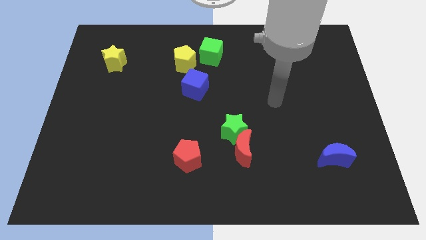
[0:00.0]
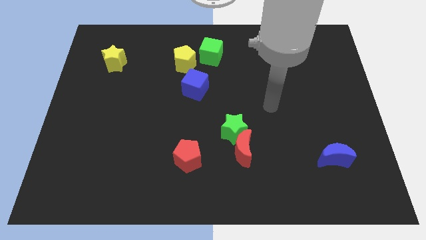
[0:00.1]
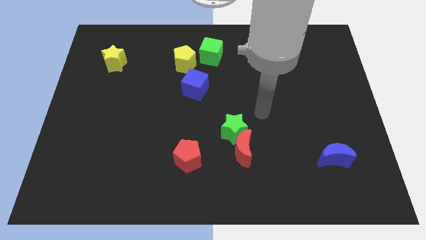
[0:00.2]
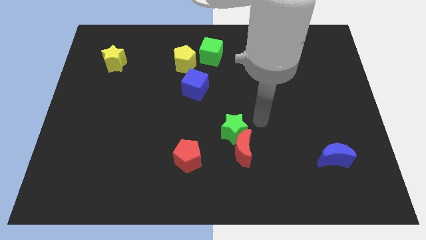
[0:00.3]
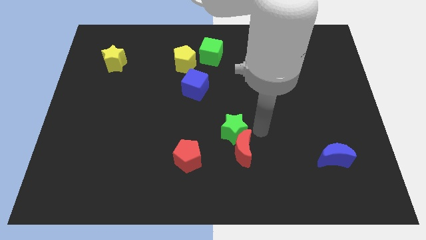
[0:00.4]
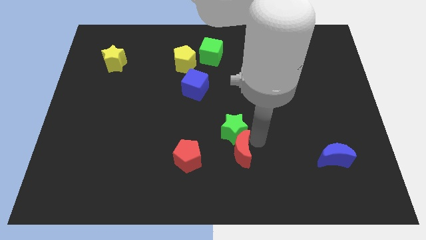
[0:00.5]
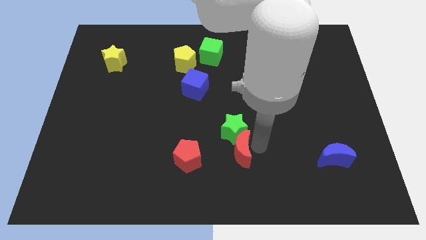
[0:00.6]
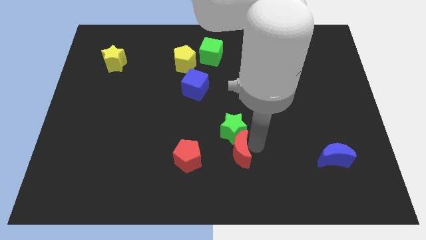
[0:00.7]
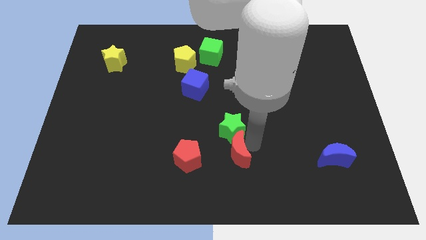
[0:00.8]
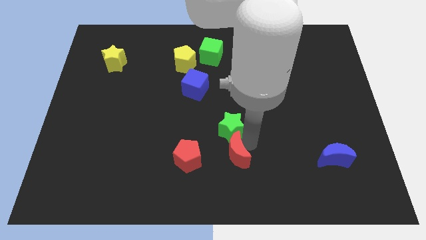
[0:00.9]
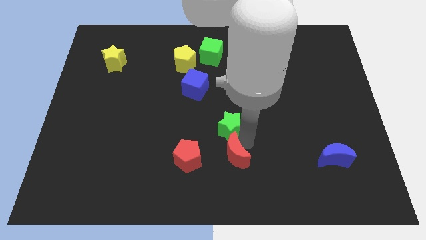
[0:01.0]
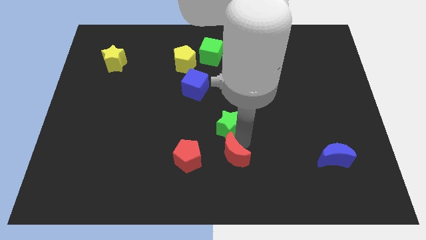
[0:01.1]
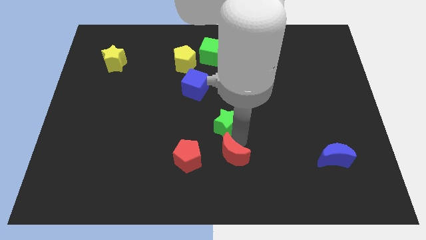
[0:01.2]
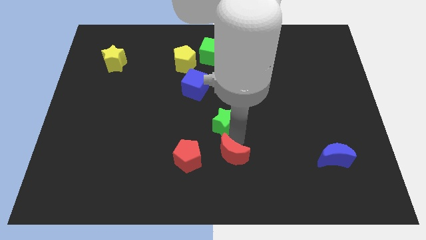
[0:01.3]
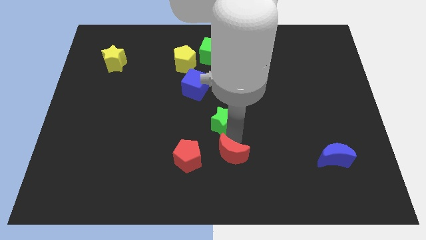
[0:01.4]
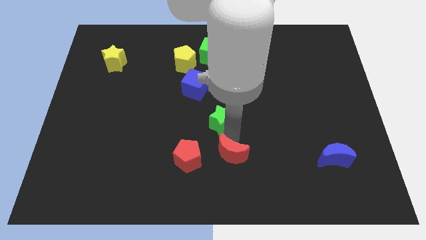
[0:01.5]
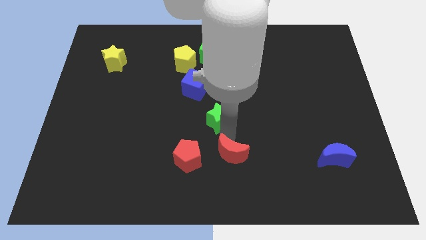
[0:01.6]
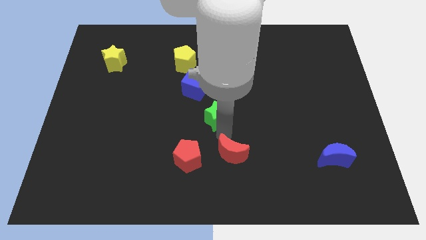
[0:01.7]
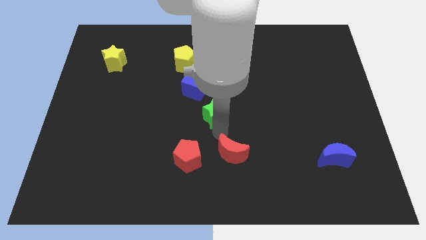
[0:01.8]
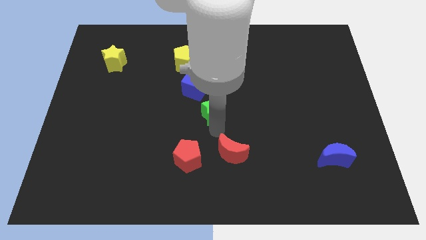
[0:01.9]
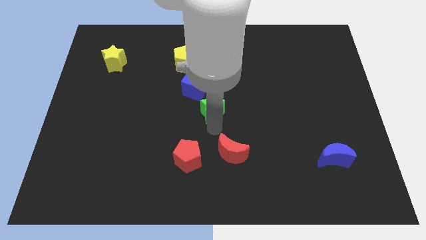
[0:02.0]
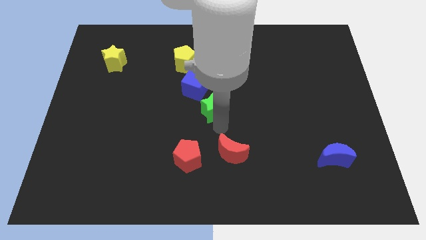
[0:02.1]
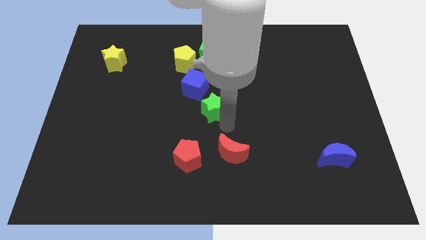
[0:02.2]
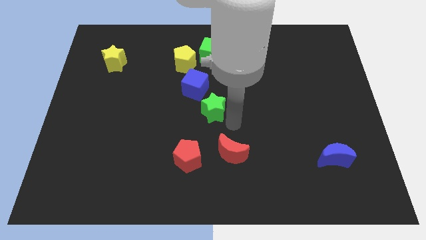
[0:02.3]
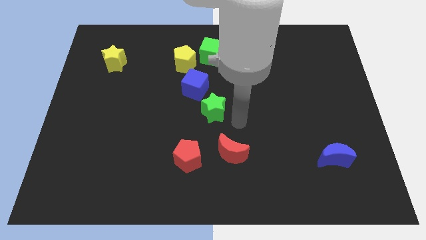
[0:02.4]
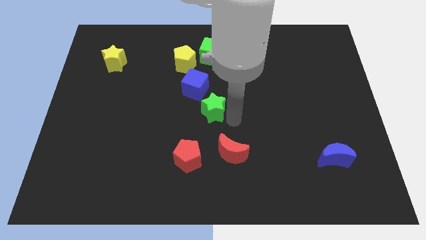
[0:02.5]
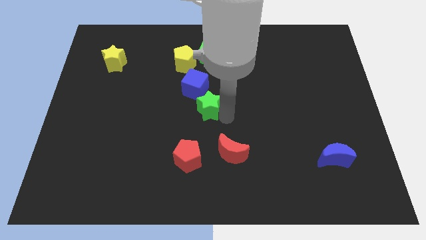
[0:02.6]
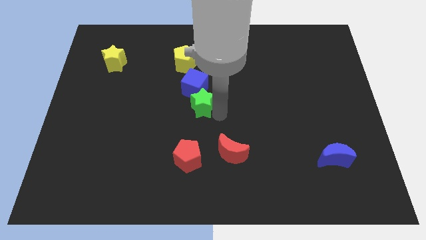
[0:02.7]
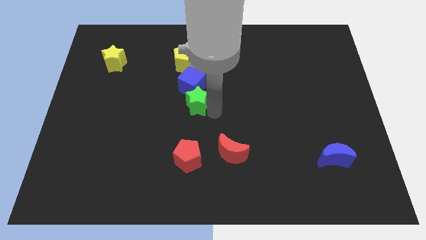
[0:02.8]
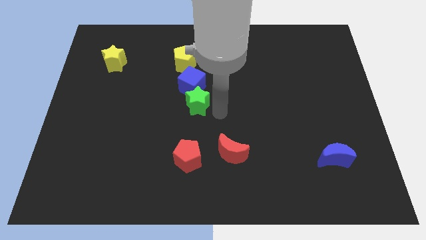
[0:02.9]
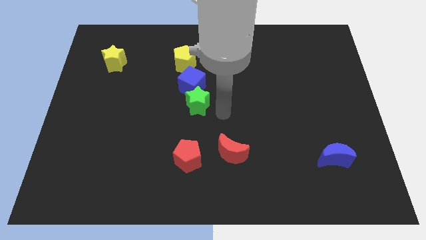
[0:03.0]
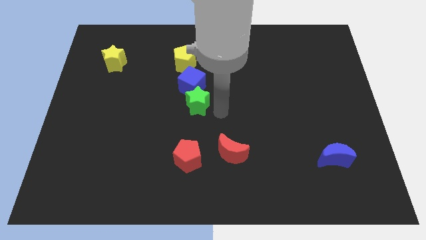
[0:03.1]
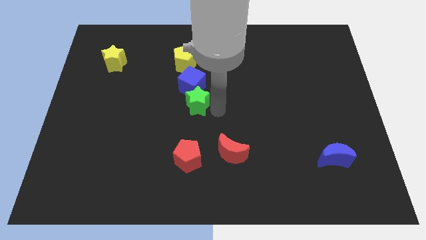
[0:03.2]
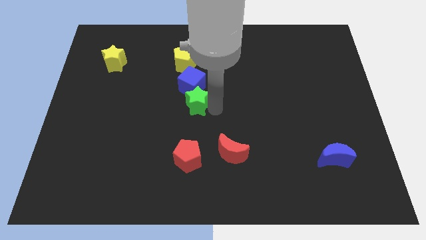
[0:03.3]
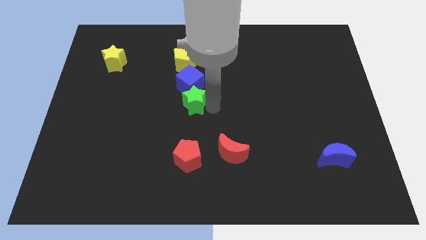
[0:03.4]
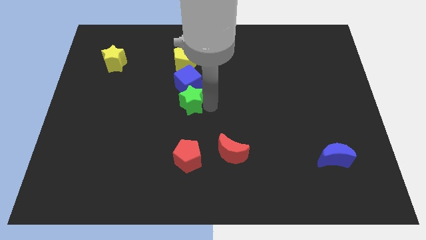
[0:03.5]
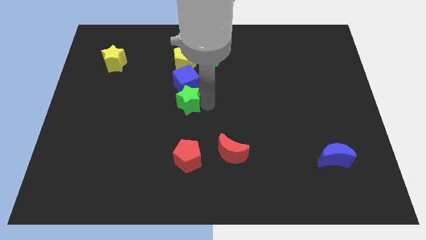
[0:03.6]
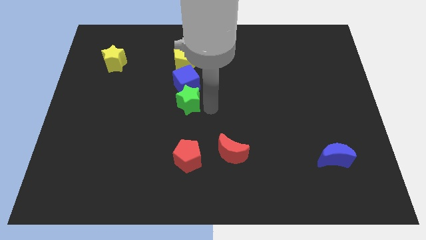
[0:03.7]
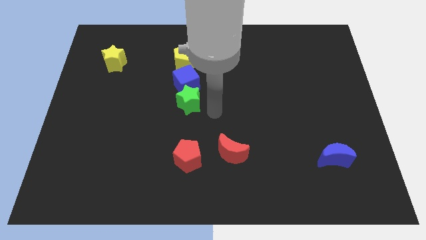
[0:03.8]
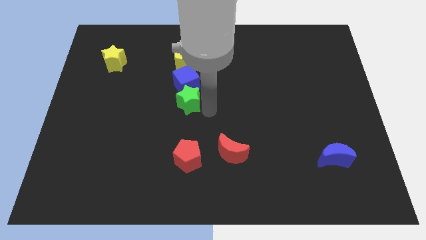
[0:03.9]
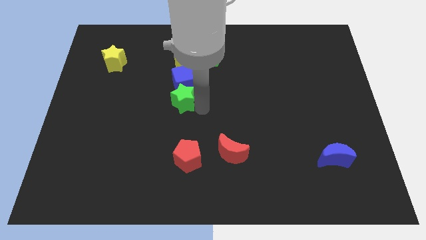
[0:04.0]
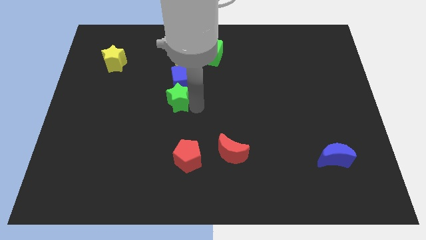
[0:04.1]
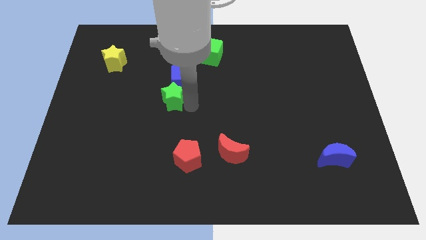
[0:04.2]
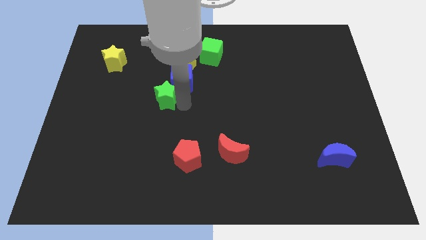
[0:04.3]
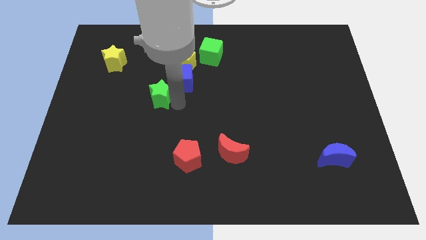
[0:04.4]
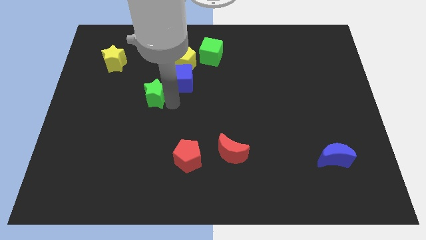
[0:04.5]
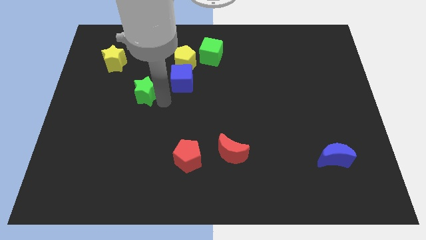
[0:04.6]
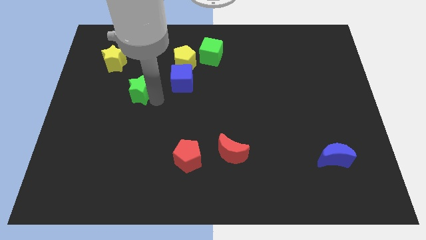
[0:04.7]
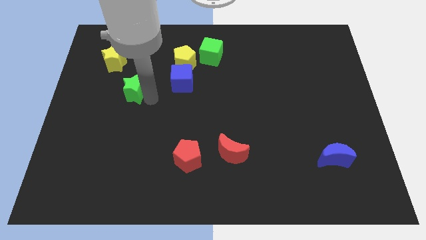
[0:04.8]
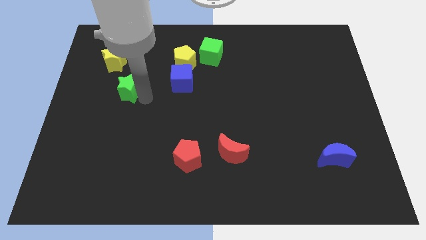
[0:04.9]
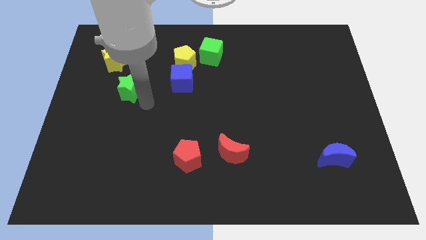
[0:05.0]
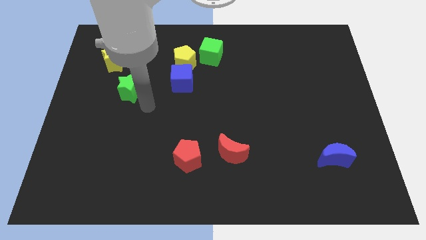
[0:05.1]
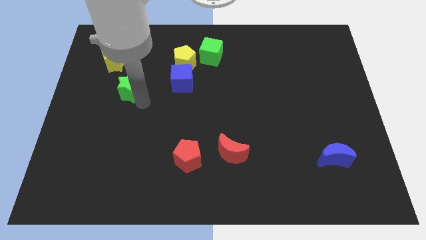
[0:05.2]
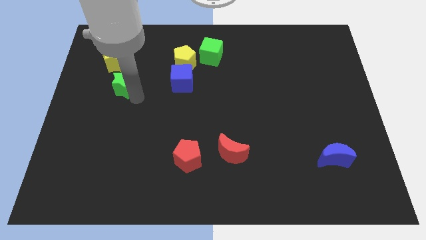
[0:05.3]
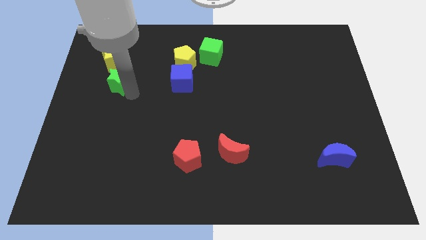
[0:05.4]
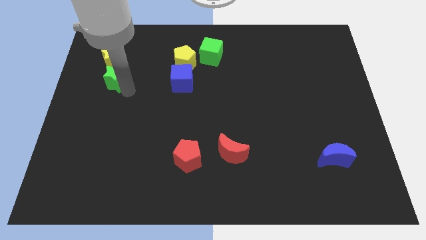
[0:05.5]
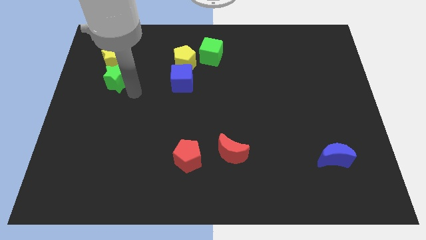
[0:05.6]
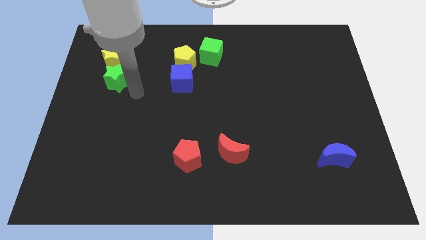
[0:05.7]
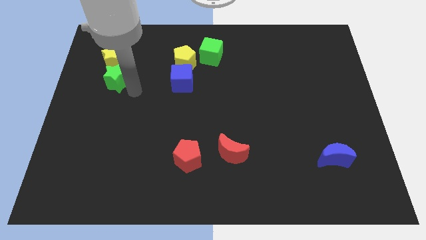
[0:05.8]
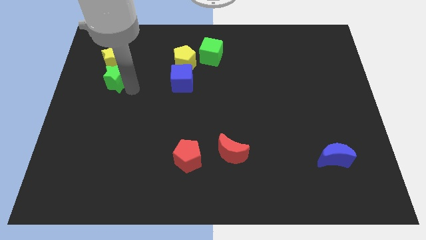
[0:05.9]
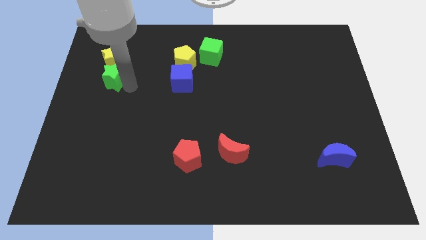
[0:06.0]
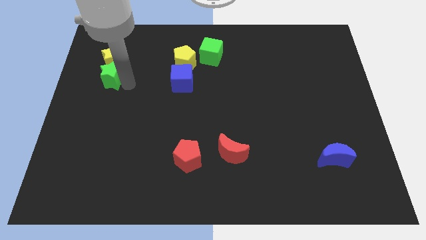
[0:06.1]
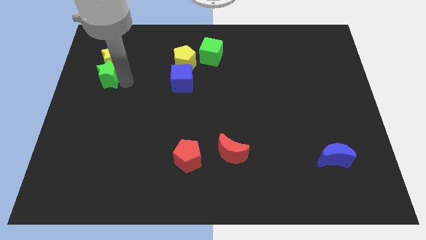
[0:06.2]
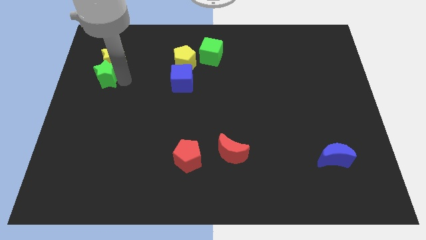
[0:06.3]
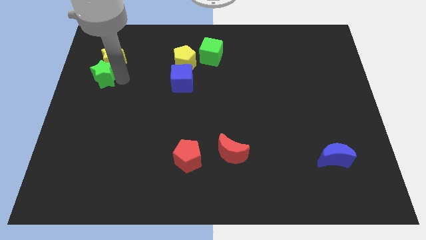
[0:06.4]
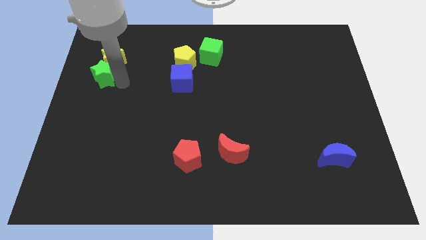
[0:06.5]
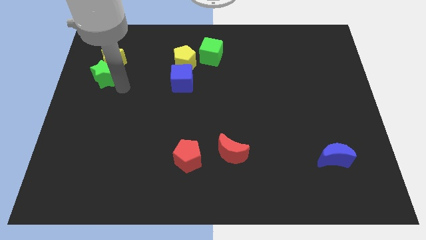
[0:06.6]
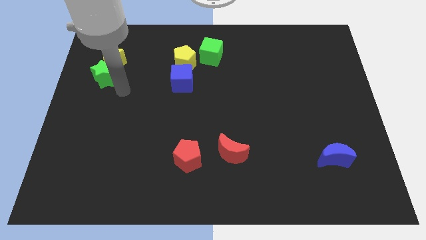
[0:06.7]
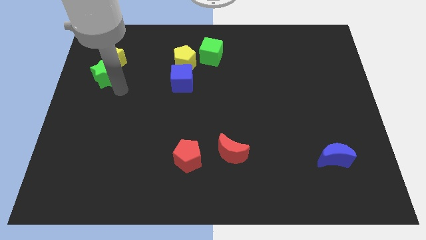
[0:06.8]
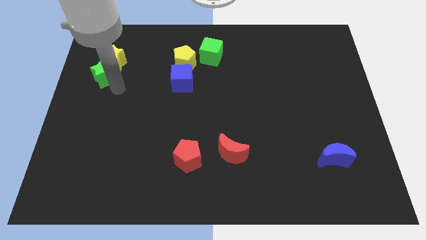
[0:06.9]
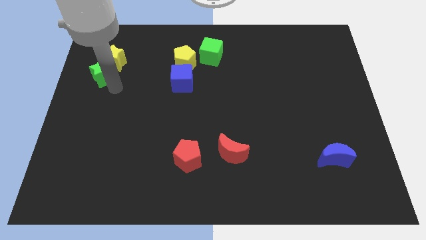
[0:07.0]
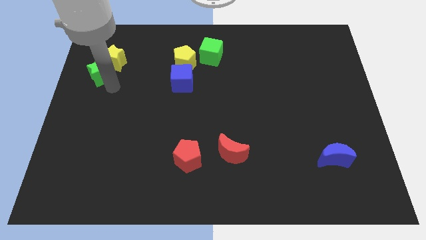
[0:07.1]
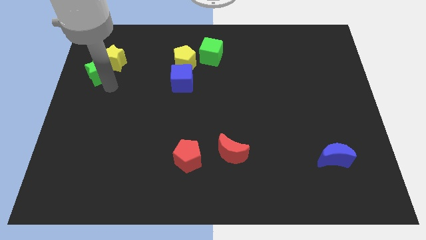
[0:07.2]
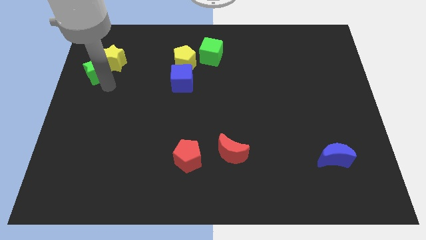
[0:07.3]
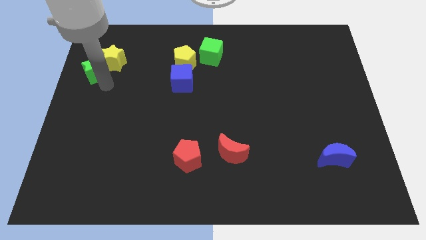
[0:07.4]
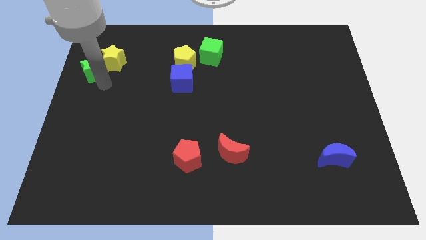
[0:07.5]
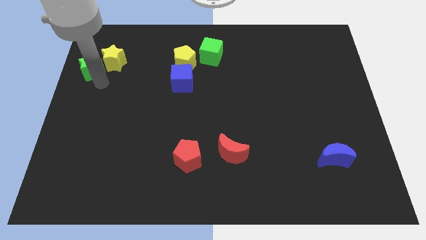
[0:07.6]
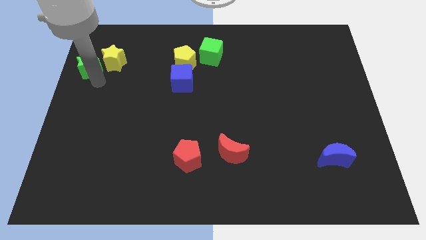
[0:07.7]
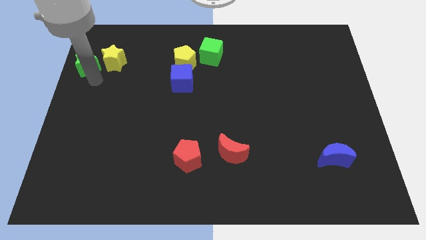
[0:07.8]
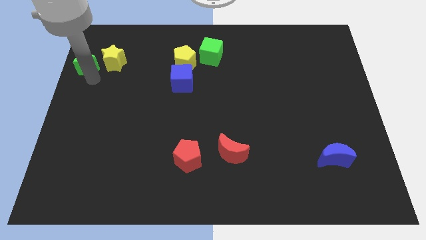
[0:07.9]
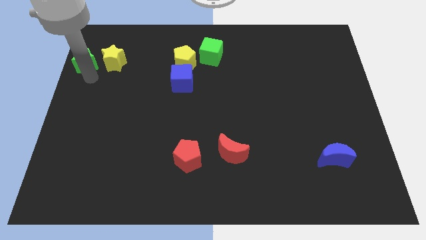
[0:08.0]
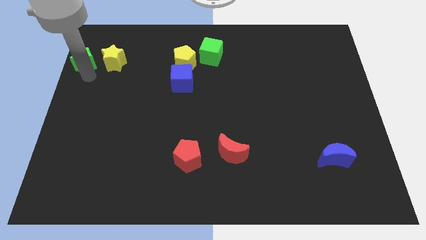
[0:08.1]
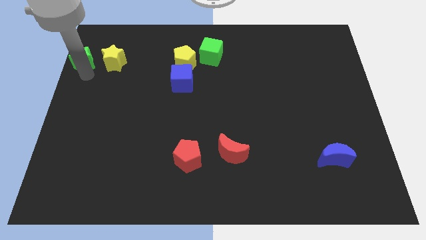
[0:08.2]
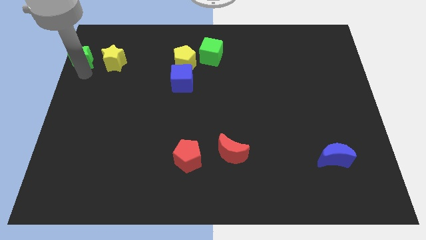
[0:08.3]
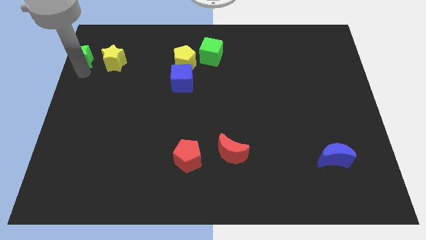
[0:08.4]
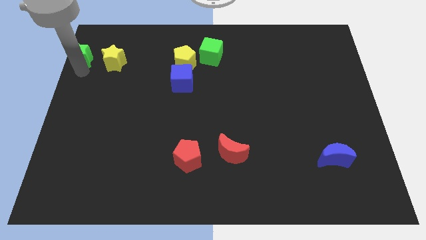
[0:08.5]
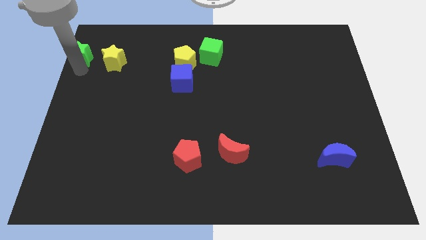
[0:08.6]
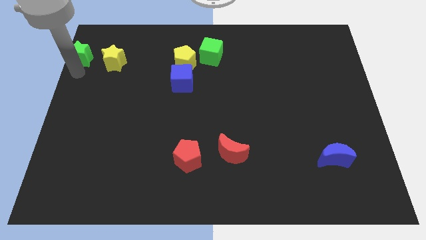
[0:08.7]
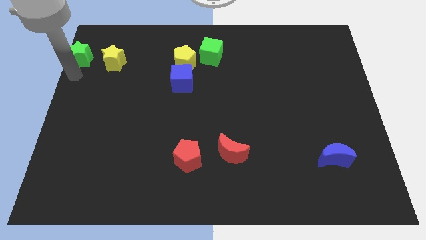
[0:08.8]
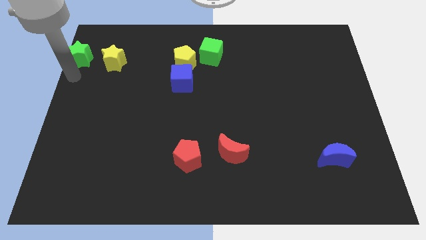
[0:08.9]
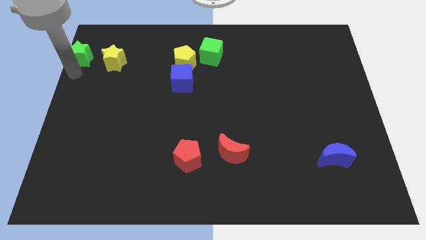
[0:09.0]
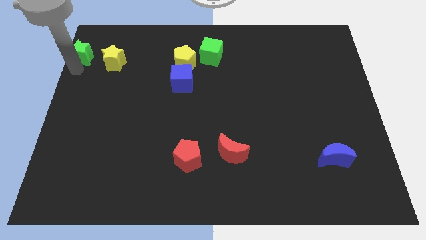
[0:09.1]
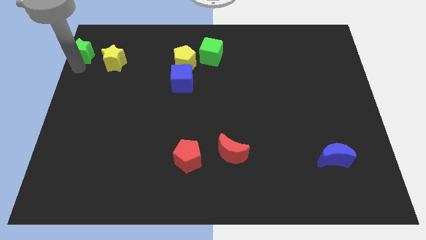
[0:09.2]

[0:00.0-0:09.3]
slide the green star to the top left of the board
